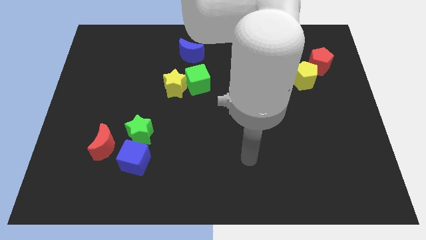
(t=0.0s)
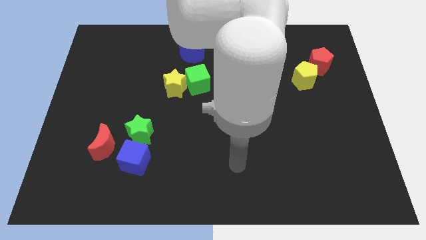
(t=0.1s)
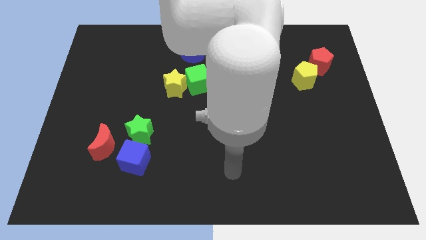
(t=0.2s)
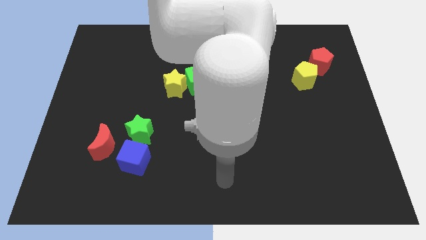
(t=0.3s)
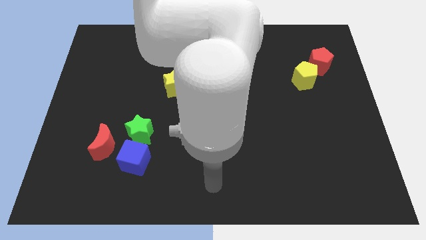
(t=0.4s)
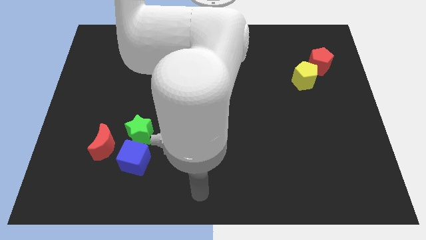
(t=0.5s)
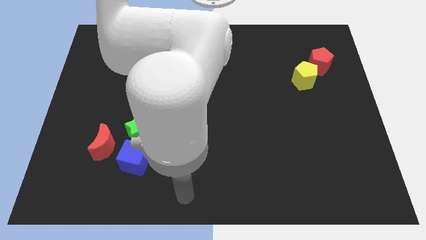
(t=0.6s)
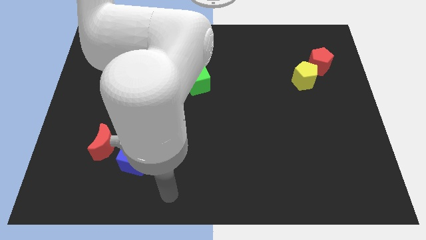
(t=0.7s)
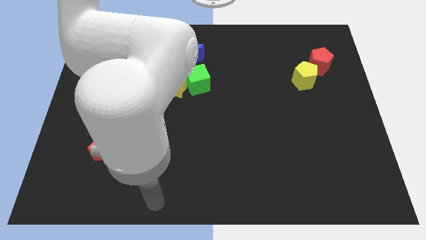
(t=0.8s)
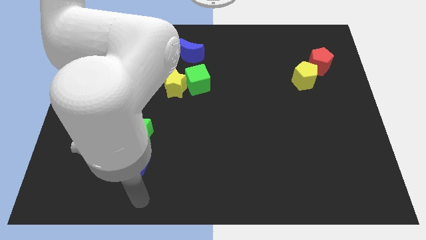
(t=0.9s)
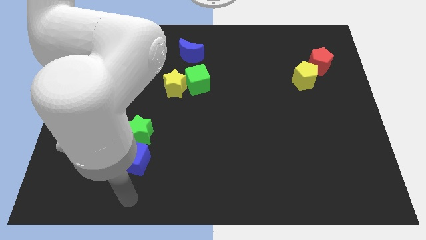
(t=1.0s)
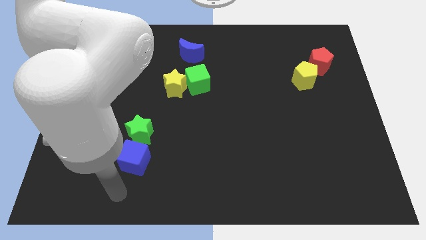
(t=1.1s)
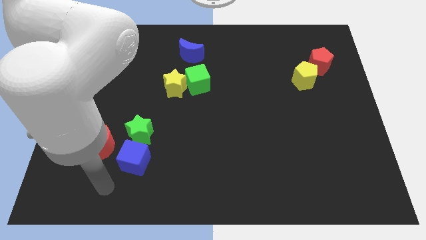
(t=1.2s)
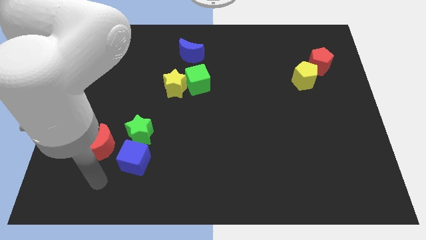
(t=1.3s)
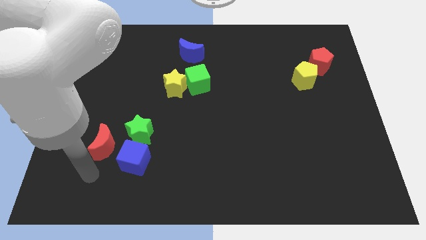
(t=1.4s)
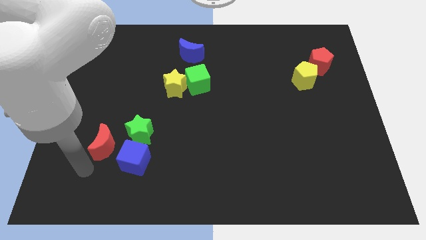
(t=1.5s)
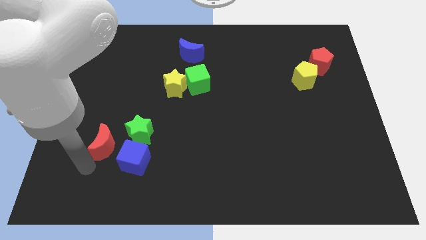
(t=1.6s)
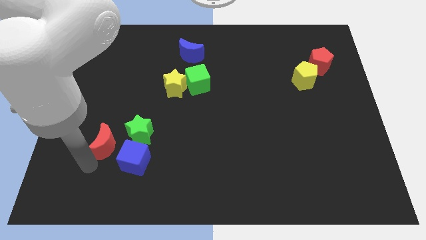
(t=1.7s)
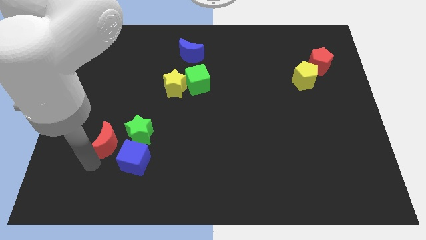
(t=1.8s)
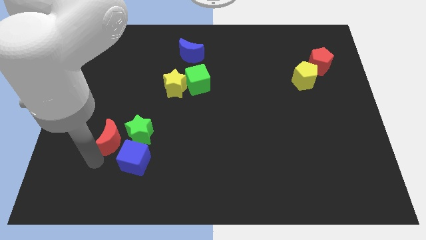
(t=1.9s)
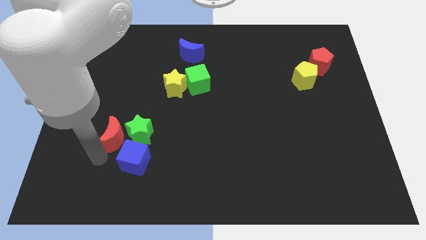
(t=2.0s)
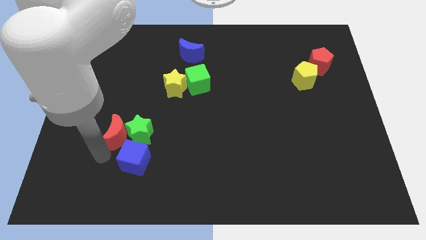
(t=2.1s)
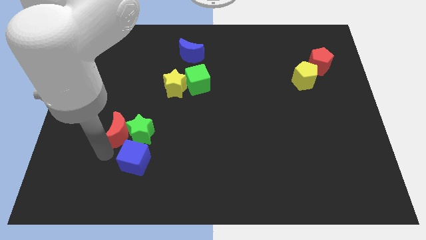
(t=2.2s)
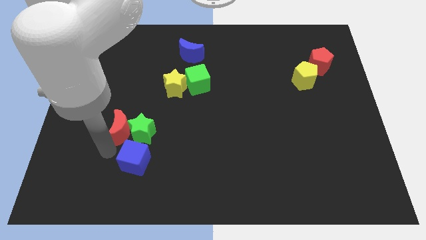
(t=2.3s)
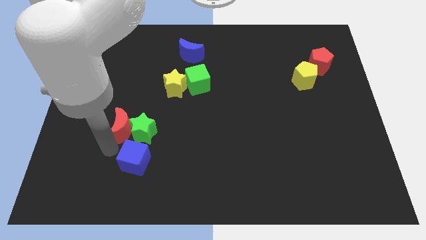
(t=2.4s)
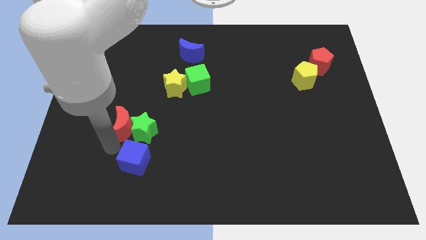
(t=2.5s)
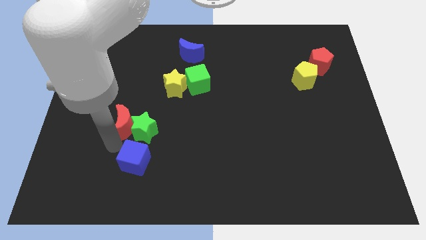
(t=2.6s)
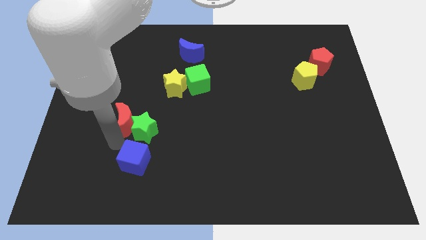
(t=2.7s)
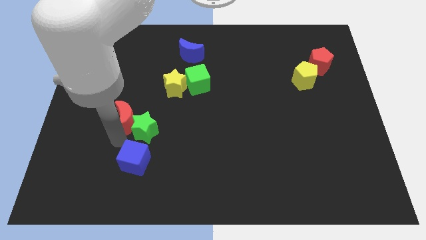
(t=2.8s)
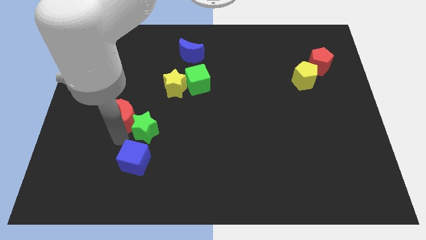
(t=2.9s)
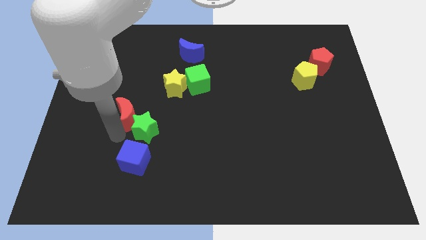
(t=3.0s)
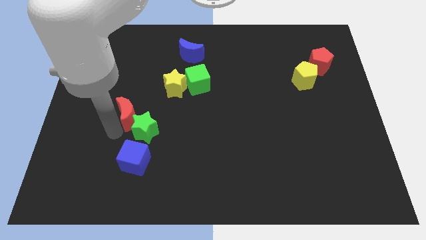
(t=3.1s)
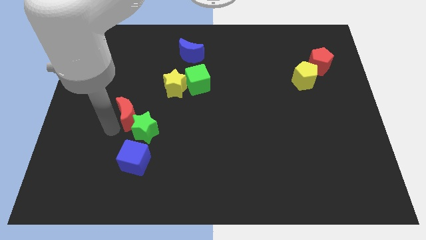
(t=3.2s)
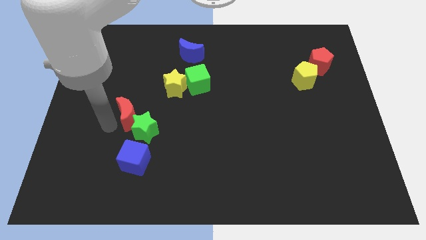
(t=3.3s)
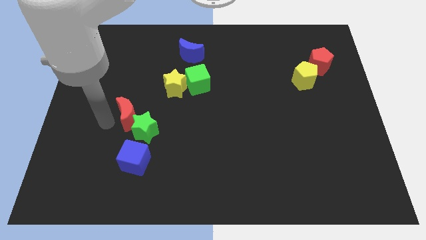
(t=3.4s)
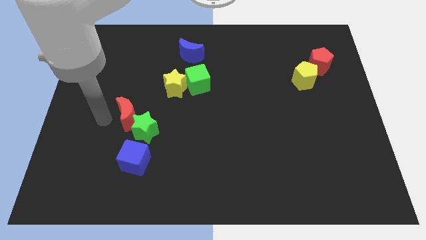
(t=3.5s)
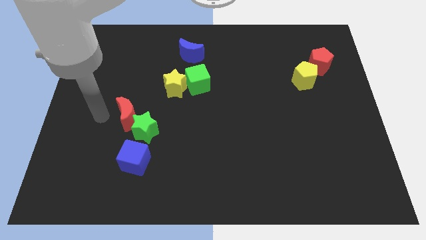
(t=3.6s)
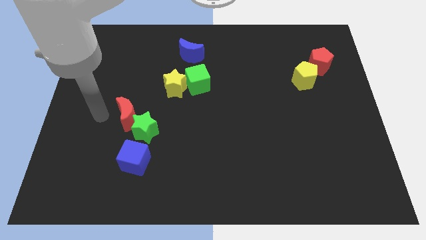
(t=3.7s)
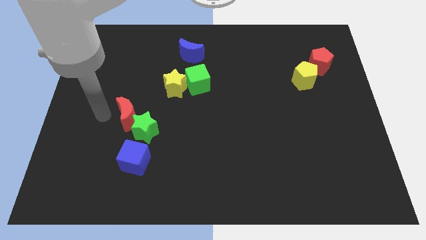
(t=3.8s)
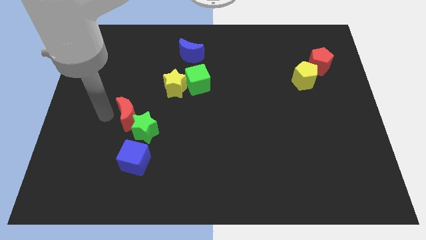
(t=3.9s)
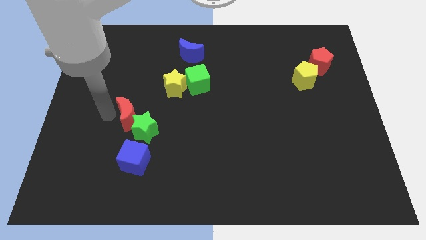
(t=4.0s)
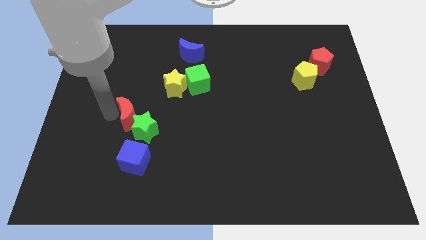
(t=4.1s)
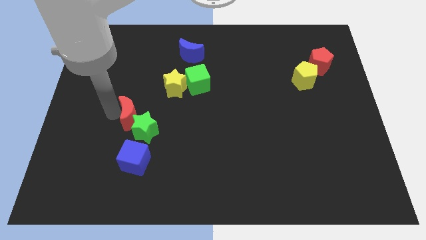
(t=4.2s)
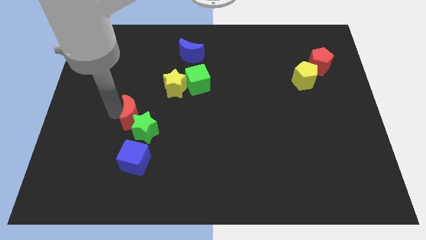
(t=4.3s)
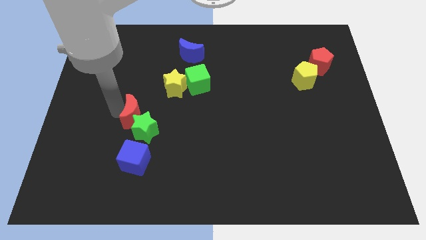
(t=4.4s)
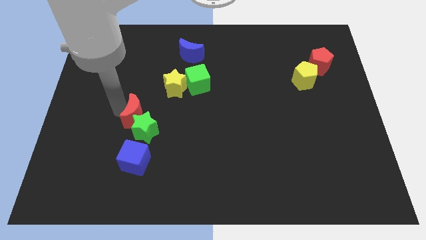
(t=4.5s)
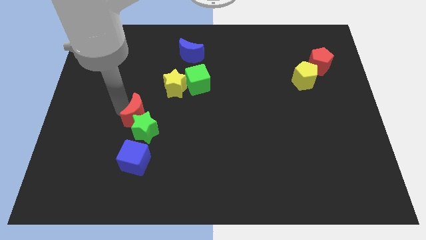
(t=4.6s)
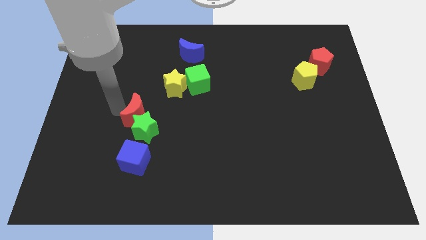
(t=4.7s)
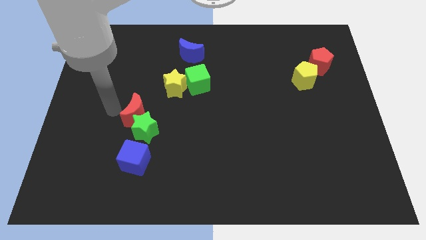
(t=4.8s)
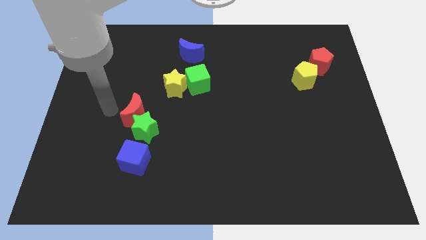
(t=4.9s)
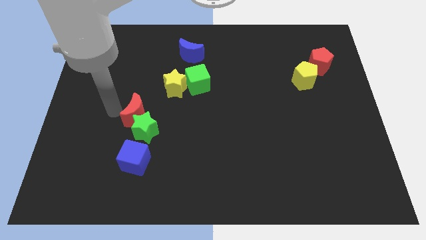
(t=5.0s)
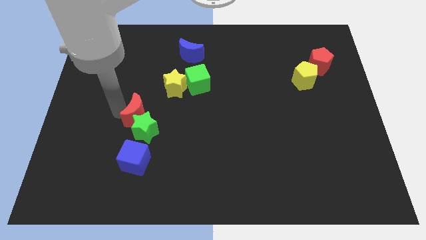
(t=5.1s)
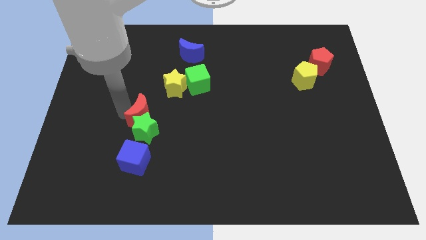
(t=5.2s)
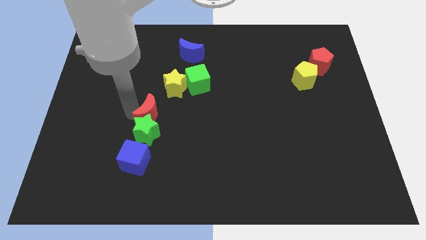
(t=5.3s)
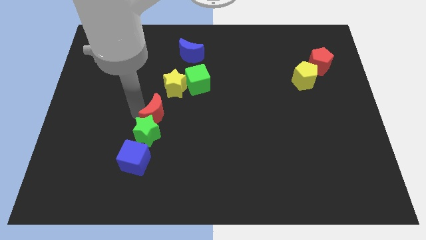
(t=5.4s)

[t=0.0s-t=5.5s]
slightly push the red moon to the right

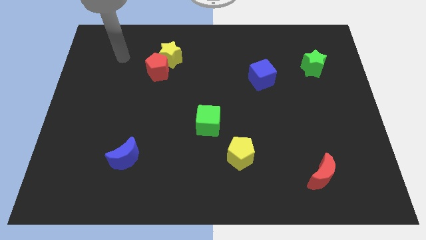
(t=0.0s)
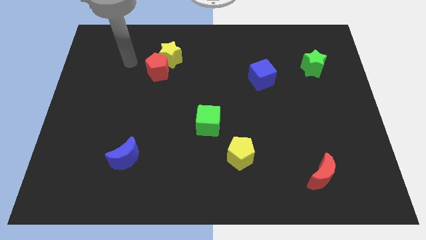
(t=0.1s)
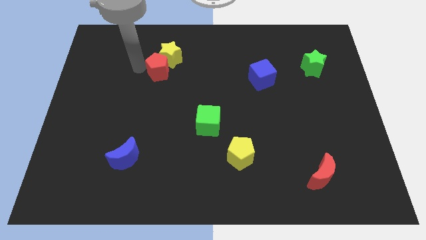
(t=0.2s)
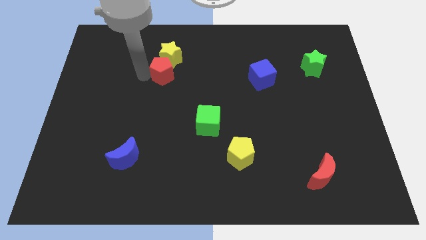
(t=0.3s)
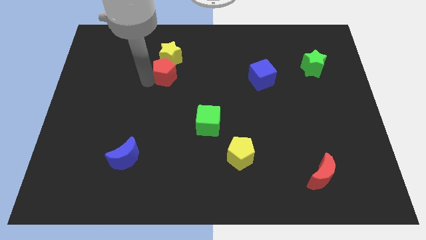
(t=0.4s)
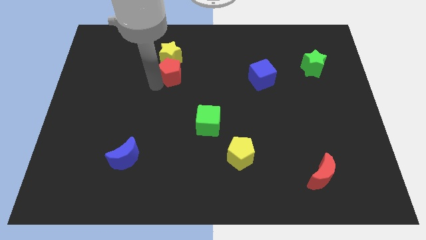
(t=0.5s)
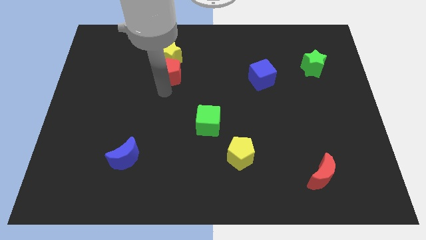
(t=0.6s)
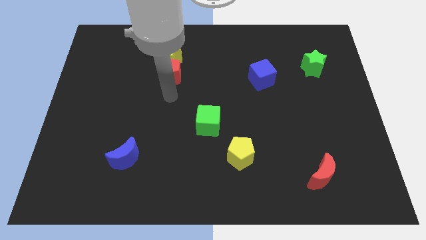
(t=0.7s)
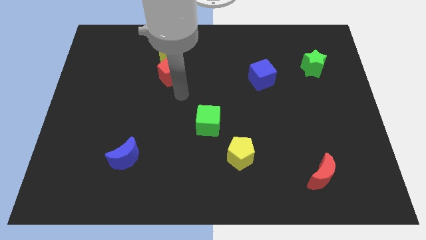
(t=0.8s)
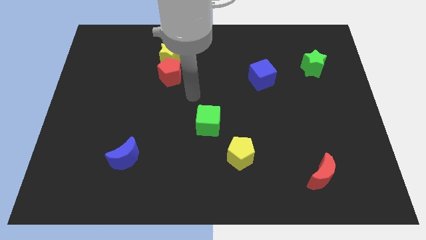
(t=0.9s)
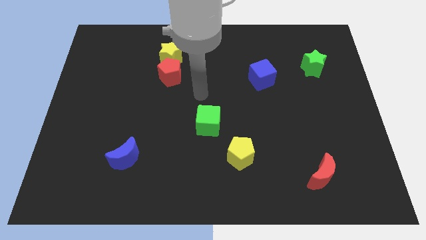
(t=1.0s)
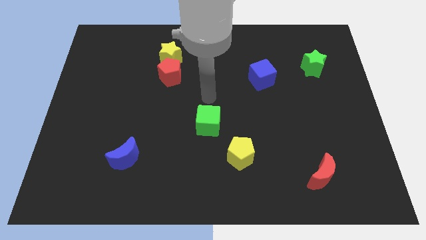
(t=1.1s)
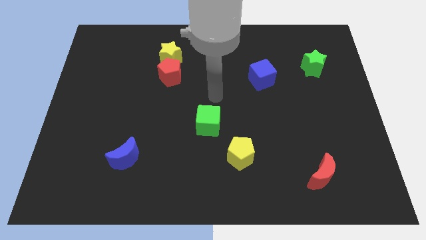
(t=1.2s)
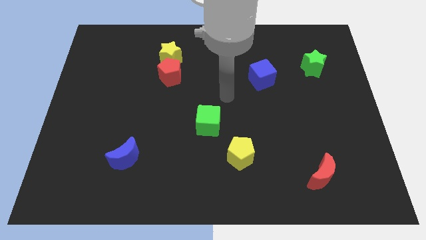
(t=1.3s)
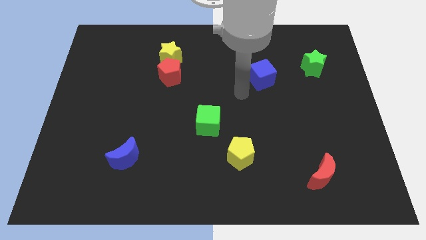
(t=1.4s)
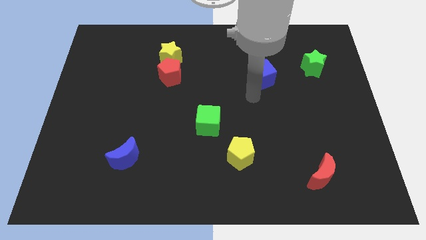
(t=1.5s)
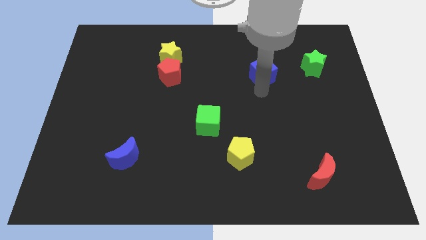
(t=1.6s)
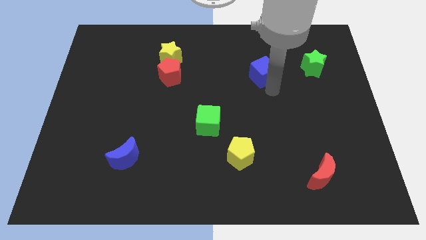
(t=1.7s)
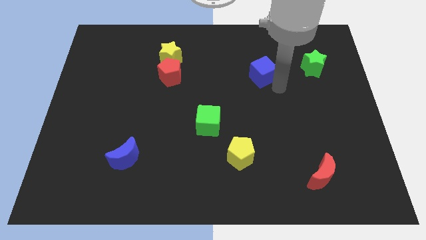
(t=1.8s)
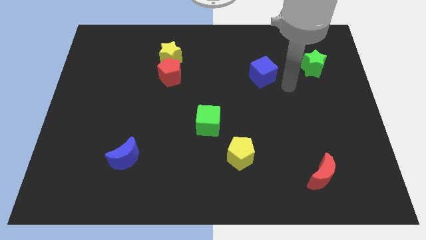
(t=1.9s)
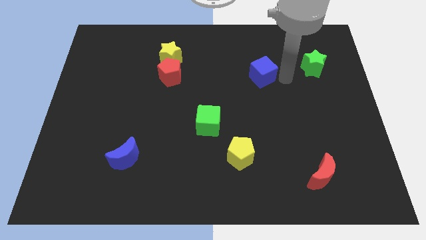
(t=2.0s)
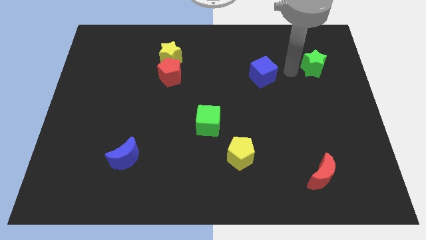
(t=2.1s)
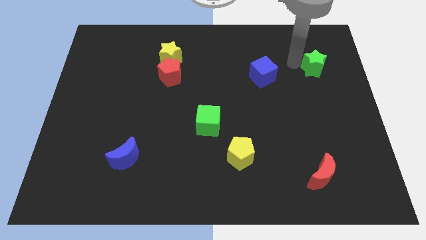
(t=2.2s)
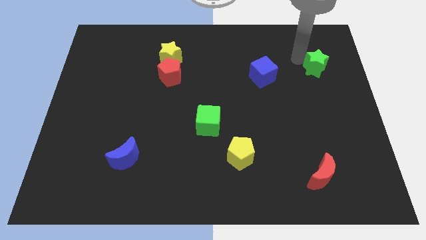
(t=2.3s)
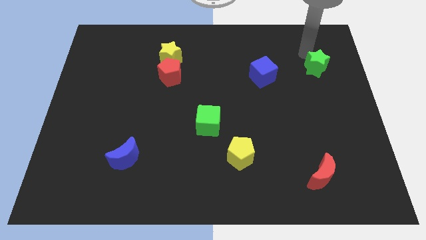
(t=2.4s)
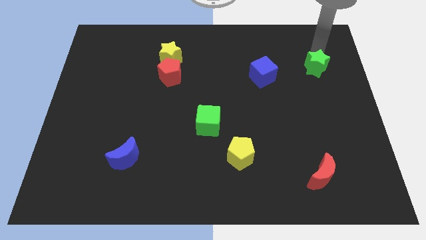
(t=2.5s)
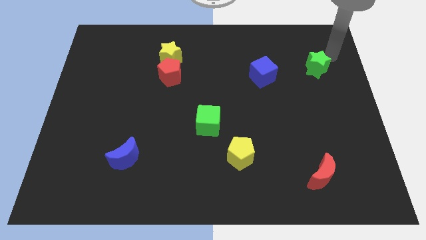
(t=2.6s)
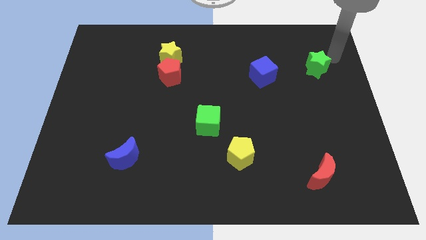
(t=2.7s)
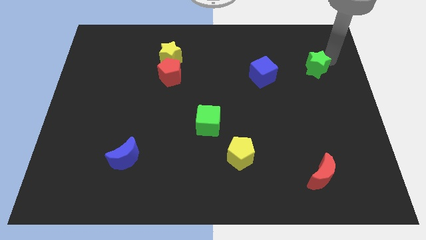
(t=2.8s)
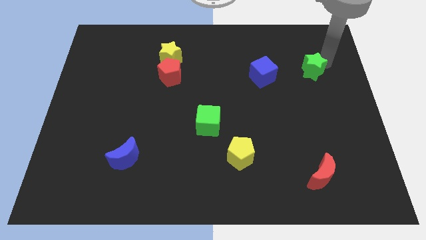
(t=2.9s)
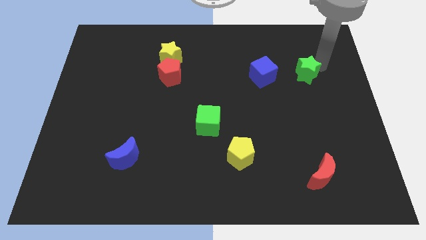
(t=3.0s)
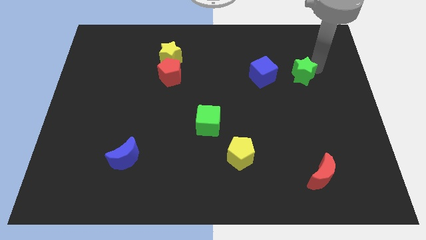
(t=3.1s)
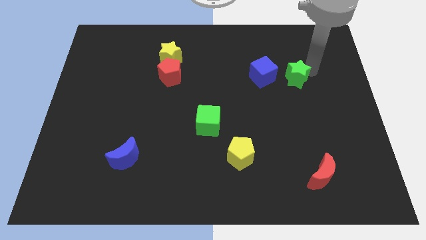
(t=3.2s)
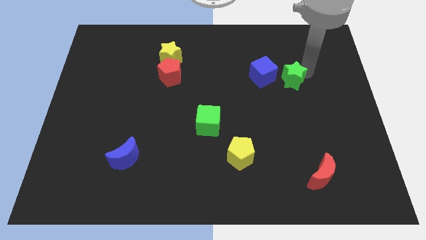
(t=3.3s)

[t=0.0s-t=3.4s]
move the green star downwards and to the left slightly
